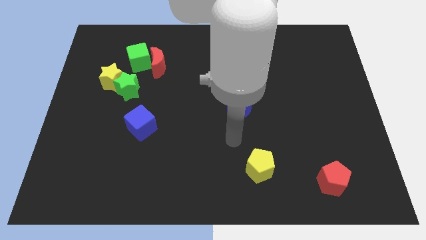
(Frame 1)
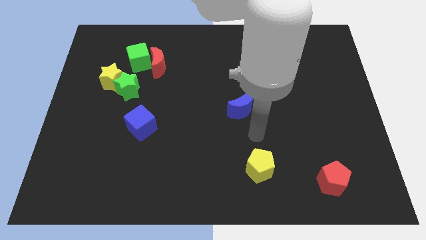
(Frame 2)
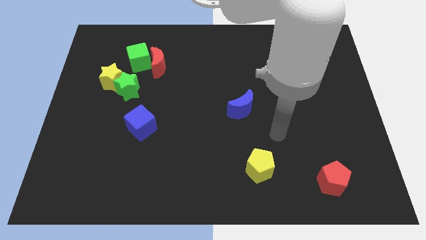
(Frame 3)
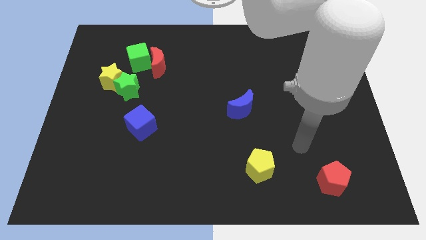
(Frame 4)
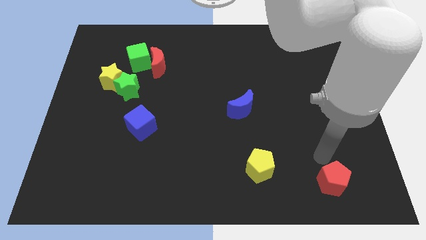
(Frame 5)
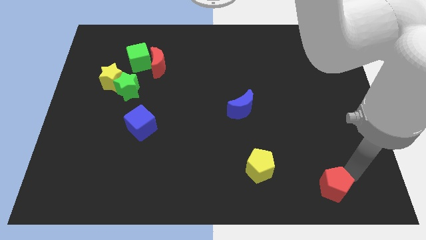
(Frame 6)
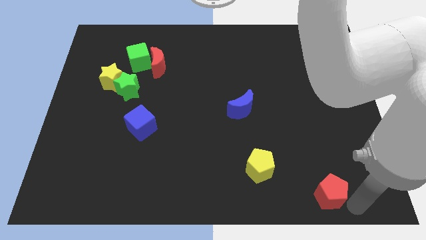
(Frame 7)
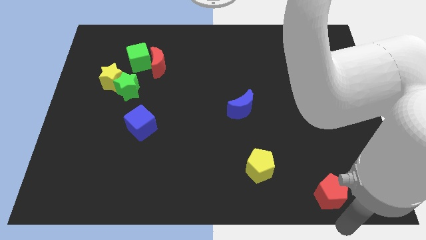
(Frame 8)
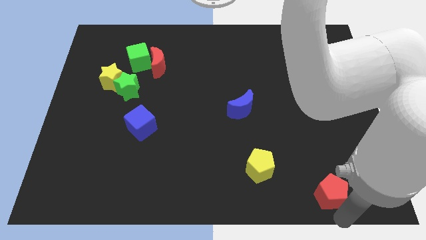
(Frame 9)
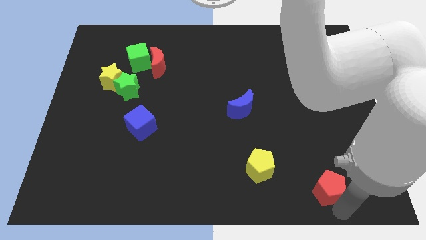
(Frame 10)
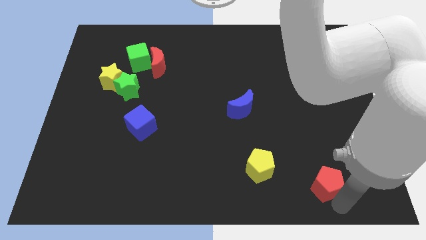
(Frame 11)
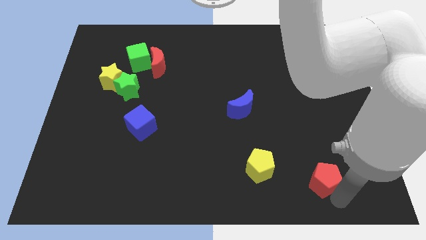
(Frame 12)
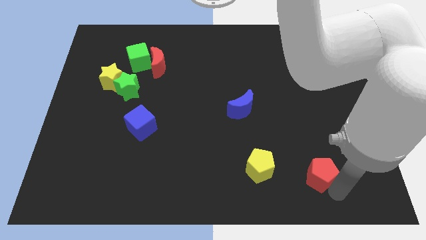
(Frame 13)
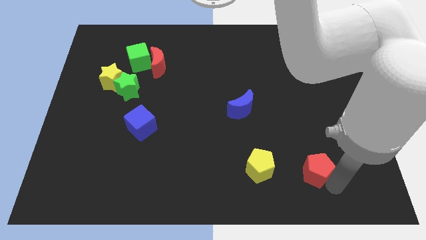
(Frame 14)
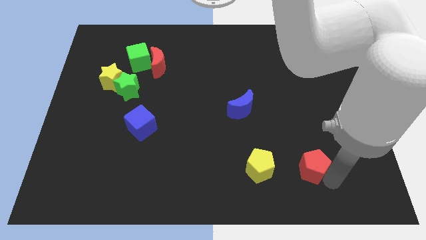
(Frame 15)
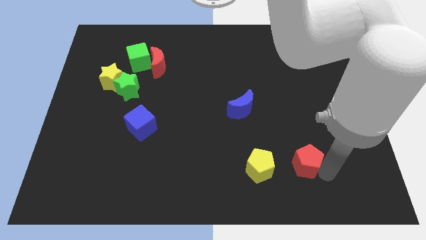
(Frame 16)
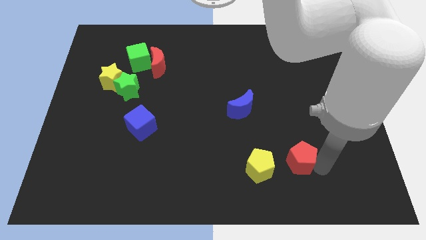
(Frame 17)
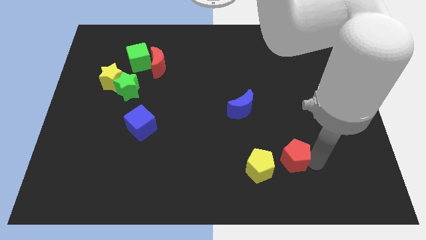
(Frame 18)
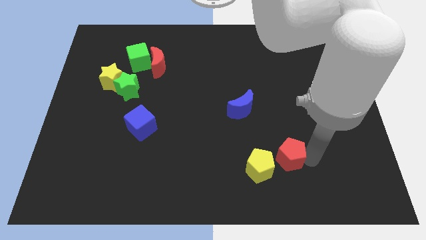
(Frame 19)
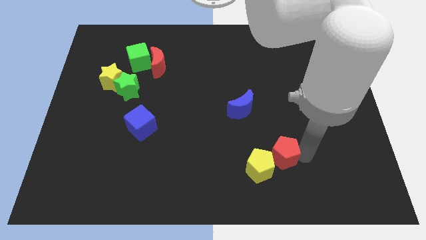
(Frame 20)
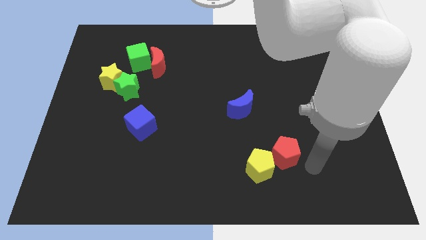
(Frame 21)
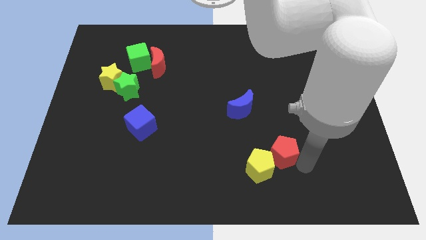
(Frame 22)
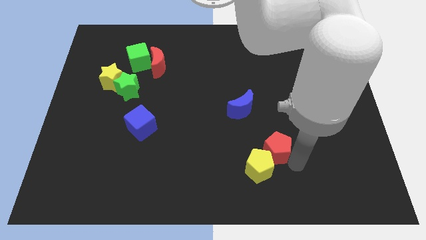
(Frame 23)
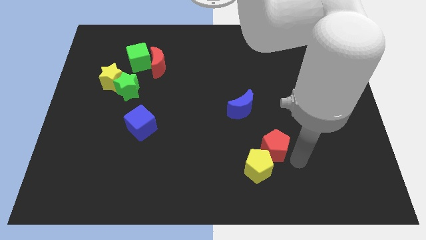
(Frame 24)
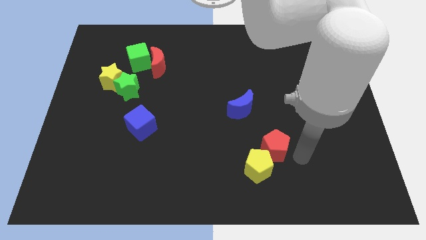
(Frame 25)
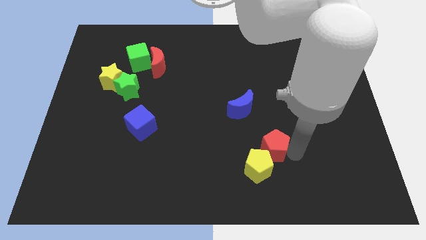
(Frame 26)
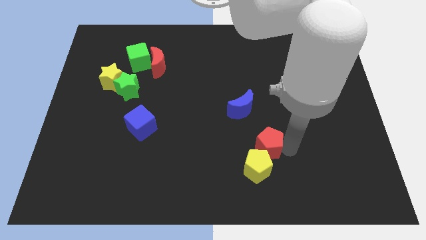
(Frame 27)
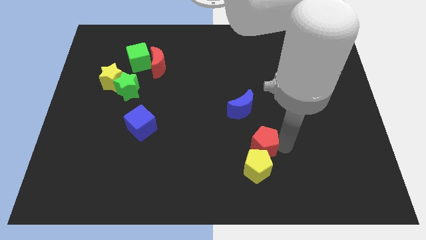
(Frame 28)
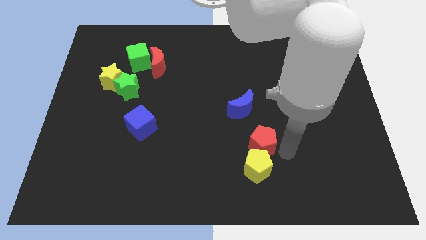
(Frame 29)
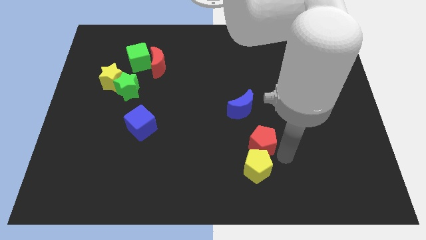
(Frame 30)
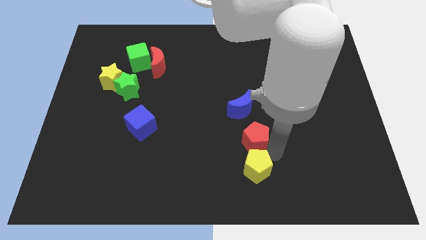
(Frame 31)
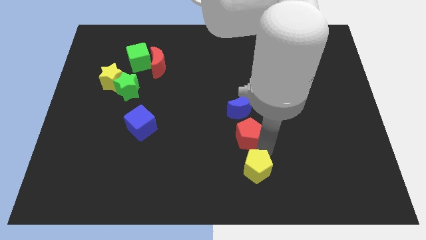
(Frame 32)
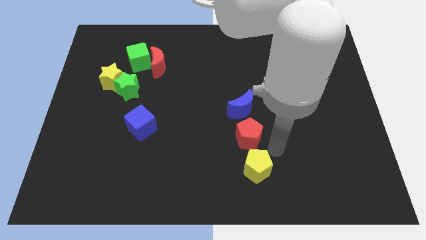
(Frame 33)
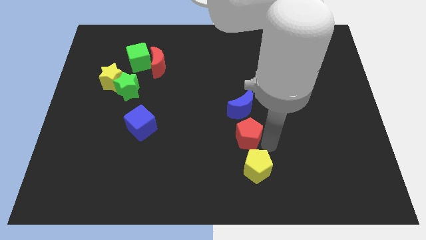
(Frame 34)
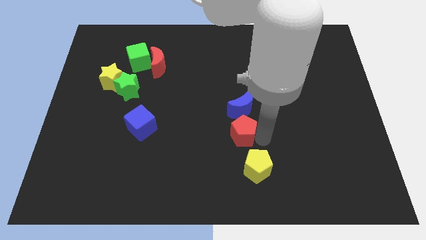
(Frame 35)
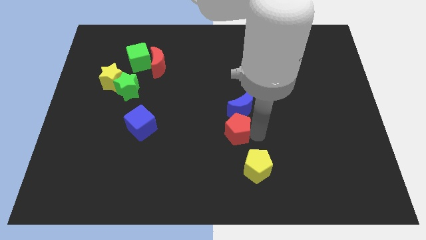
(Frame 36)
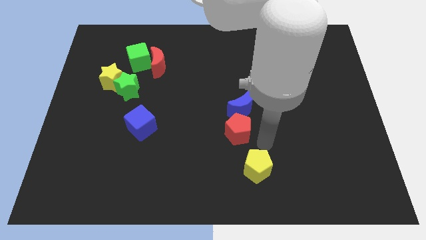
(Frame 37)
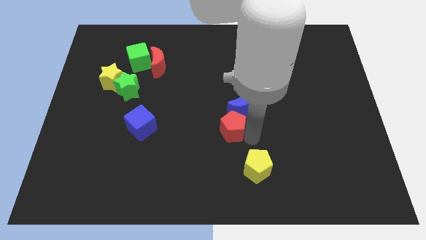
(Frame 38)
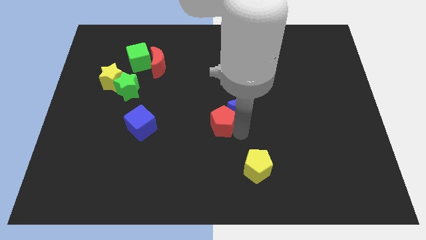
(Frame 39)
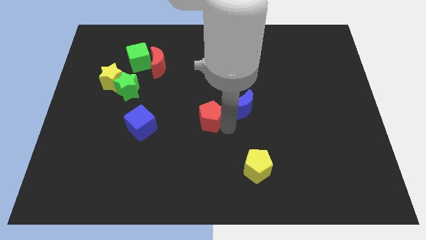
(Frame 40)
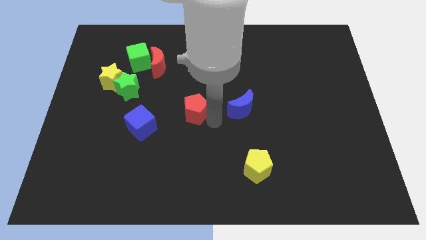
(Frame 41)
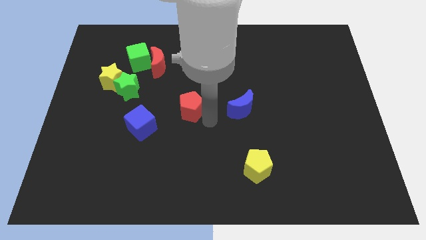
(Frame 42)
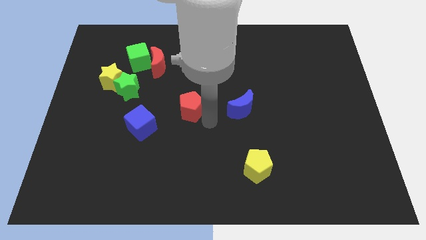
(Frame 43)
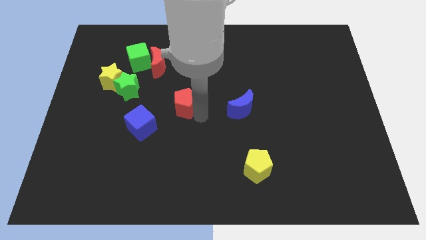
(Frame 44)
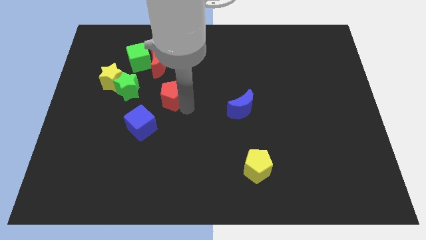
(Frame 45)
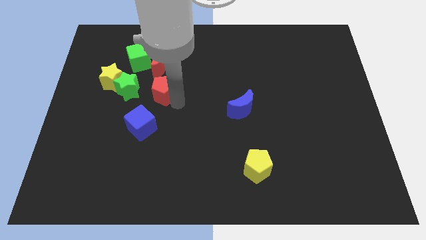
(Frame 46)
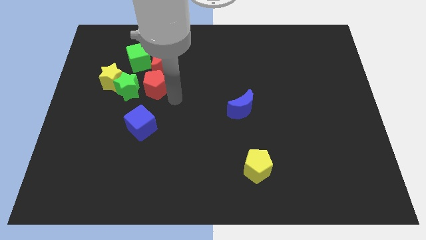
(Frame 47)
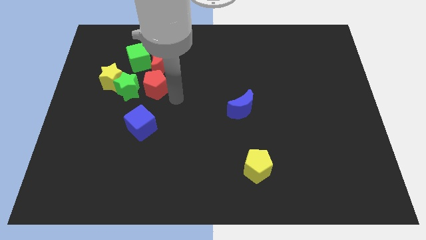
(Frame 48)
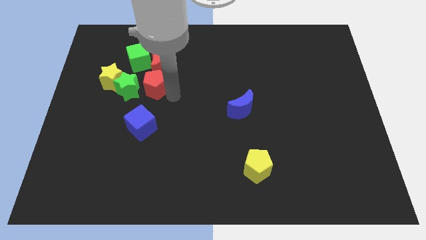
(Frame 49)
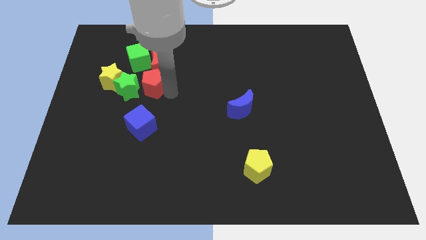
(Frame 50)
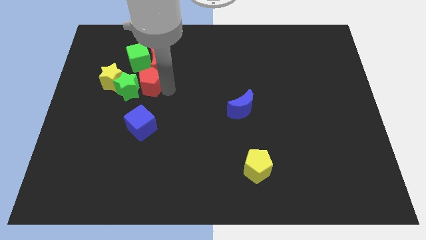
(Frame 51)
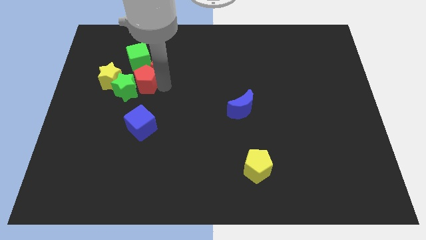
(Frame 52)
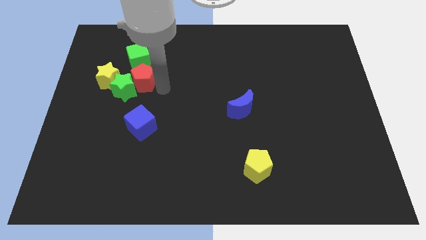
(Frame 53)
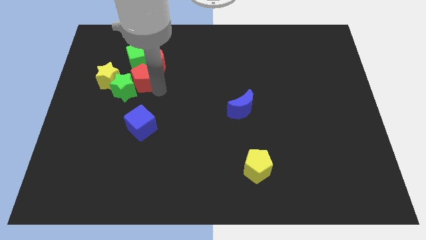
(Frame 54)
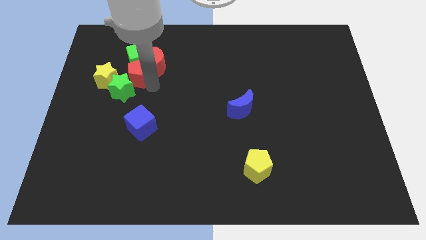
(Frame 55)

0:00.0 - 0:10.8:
move the red pentagon to the left side of the red moon

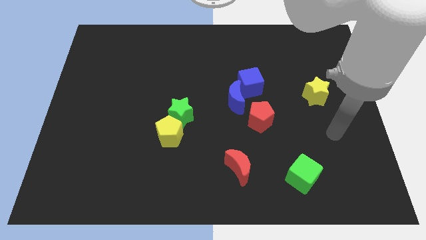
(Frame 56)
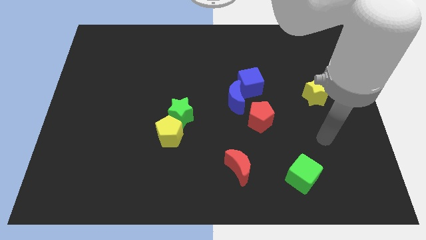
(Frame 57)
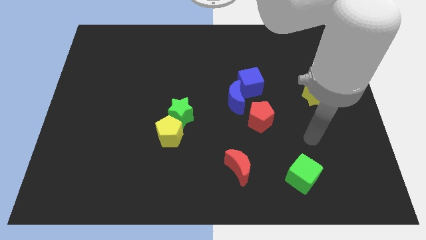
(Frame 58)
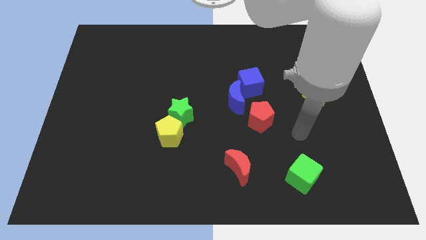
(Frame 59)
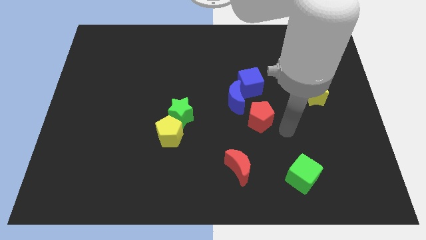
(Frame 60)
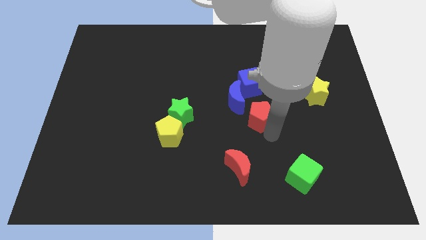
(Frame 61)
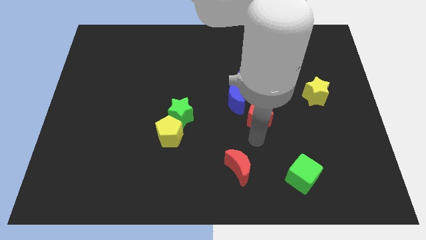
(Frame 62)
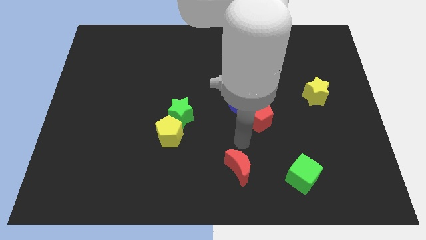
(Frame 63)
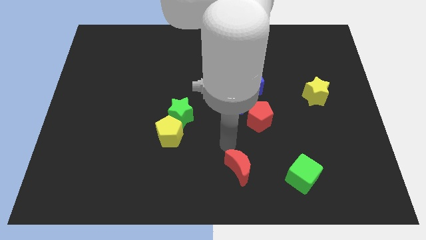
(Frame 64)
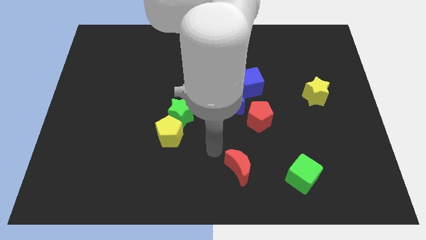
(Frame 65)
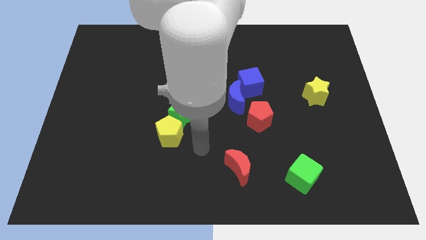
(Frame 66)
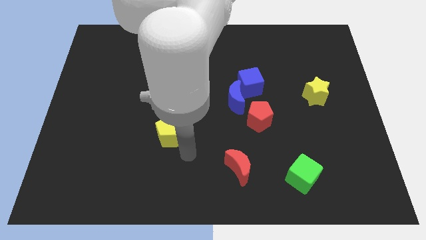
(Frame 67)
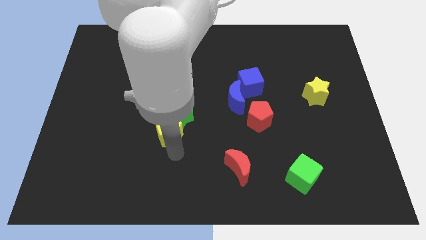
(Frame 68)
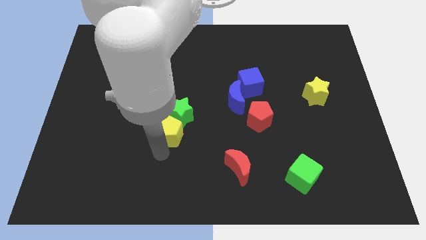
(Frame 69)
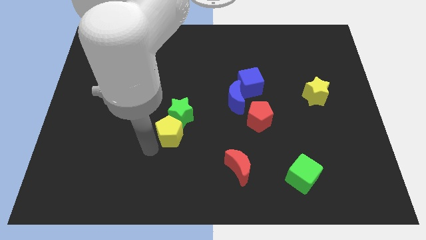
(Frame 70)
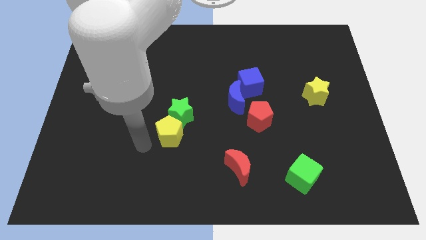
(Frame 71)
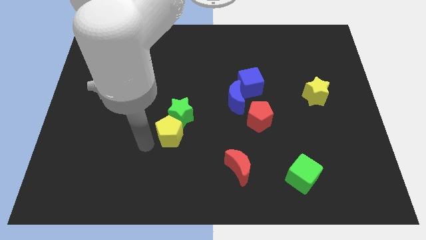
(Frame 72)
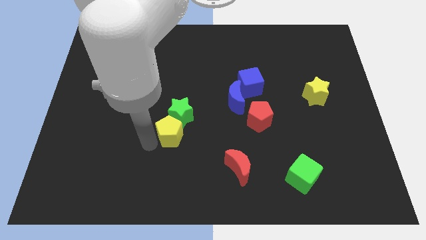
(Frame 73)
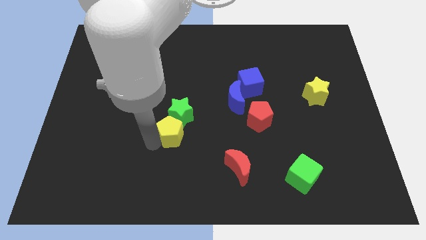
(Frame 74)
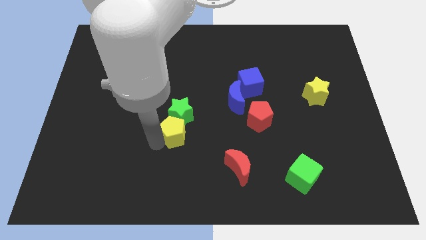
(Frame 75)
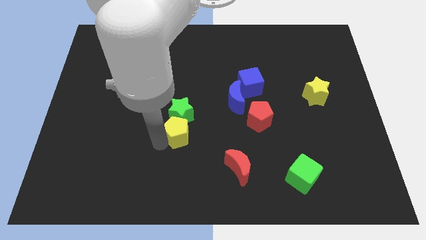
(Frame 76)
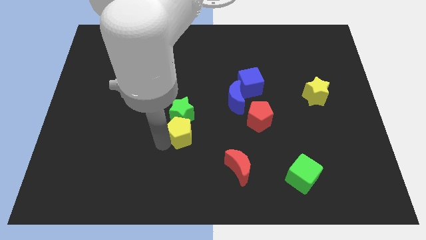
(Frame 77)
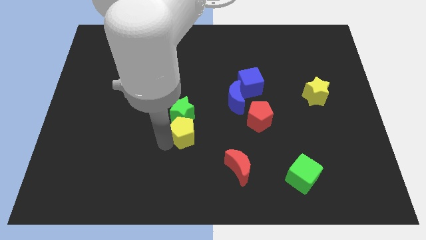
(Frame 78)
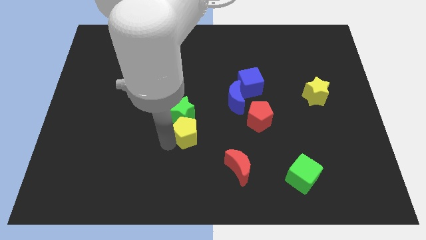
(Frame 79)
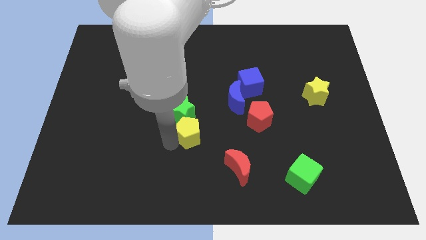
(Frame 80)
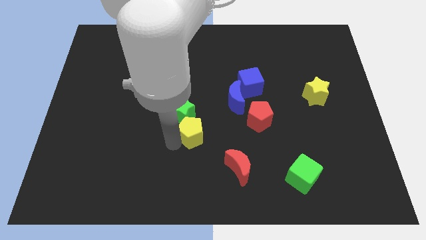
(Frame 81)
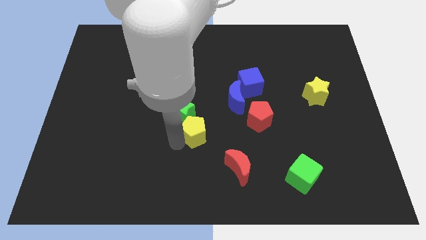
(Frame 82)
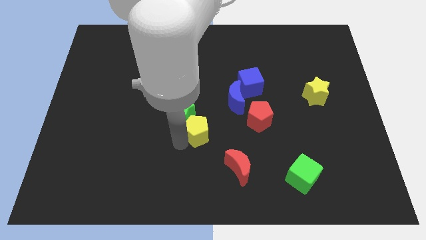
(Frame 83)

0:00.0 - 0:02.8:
move the yellow pentagon to the bottom left of the blue moon
